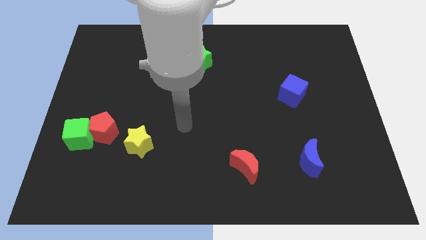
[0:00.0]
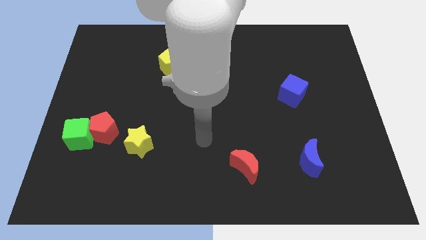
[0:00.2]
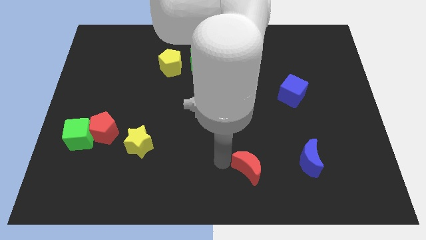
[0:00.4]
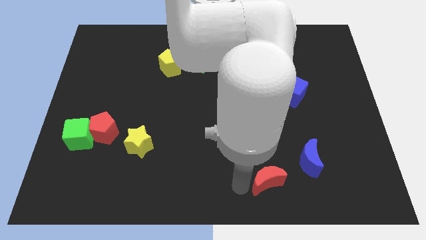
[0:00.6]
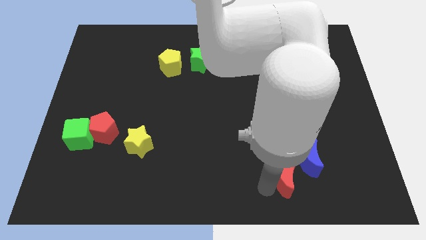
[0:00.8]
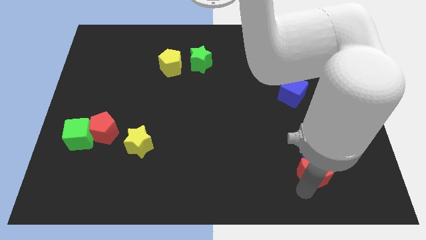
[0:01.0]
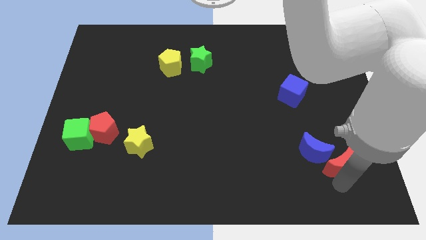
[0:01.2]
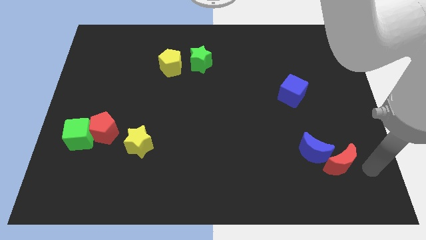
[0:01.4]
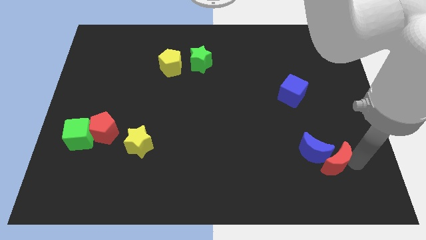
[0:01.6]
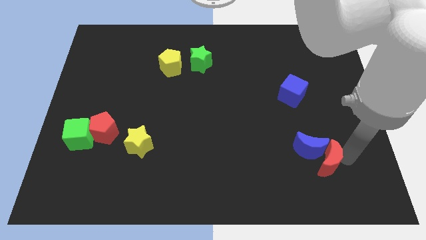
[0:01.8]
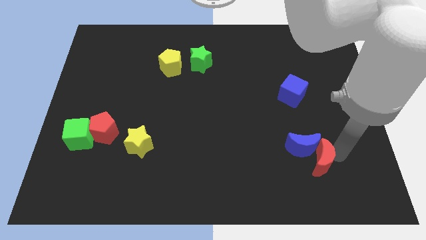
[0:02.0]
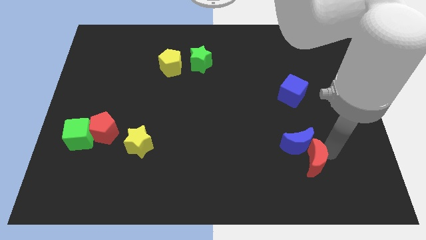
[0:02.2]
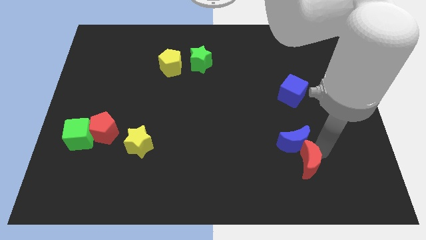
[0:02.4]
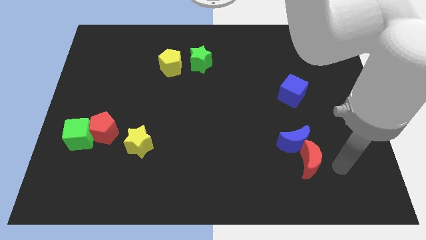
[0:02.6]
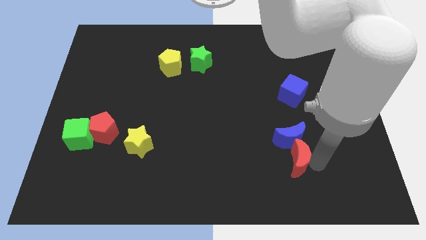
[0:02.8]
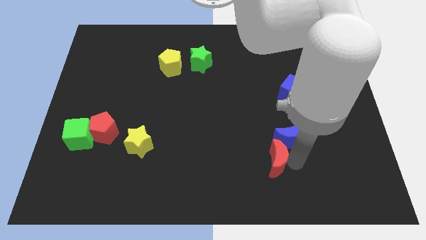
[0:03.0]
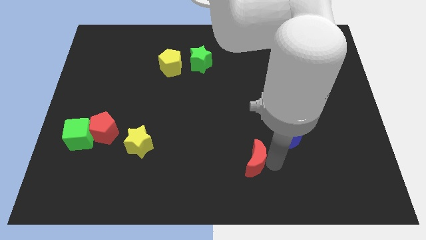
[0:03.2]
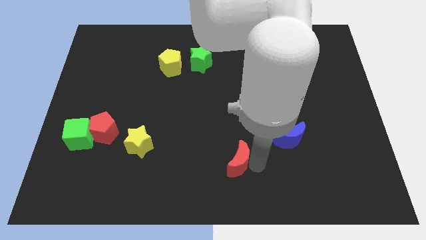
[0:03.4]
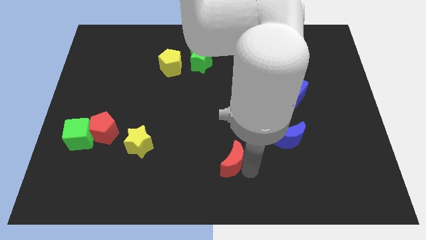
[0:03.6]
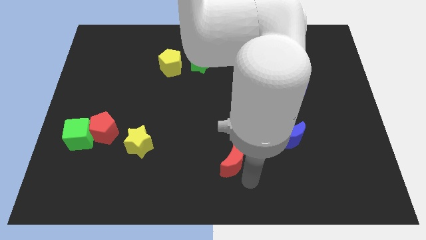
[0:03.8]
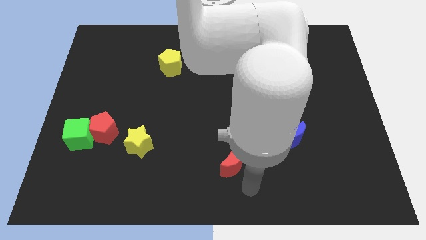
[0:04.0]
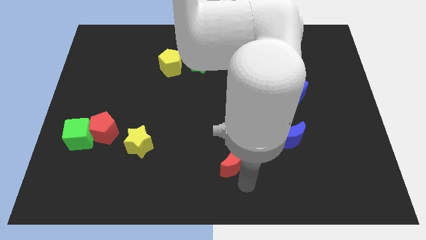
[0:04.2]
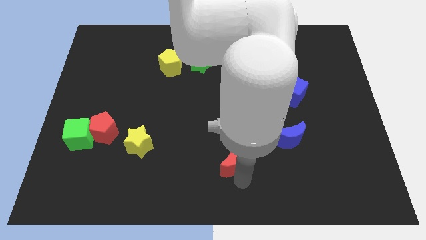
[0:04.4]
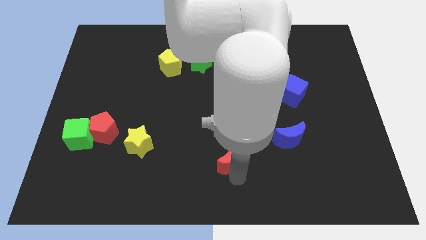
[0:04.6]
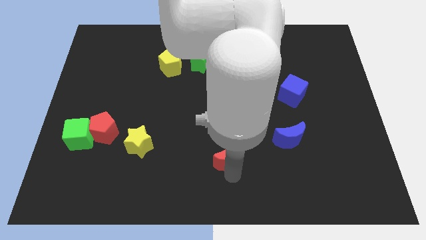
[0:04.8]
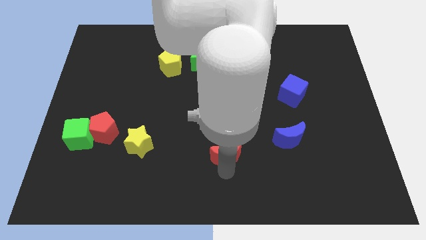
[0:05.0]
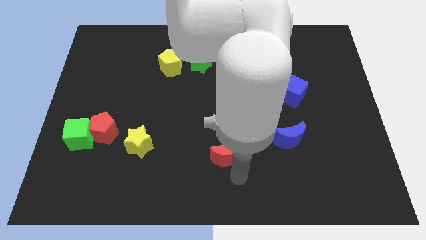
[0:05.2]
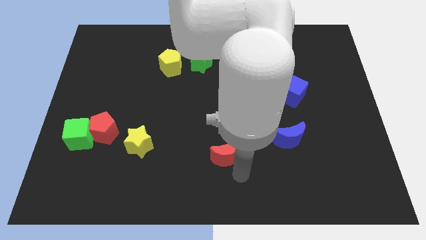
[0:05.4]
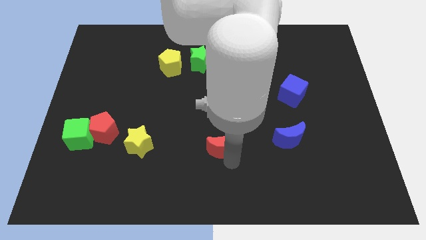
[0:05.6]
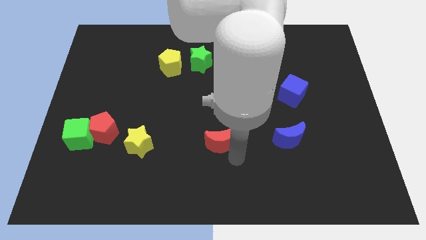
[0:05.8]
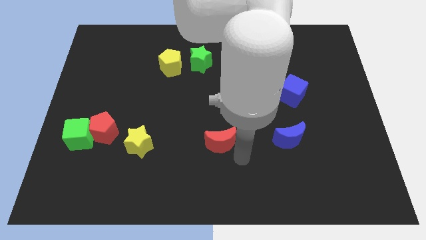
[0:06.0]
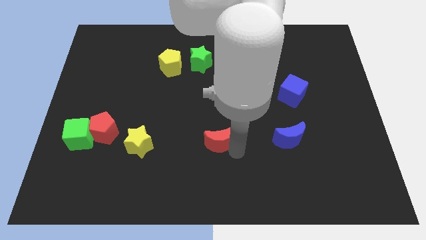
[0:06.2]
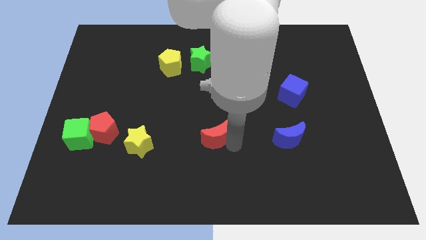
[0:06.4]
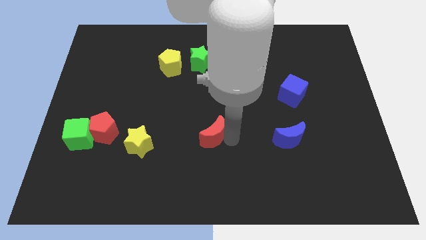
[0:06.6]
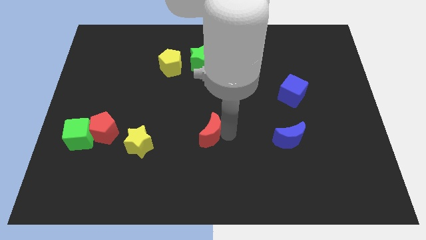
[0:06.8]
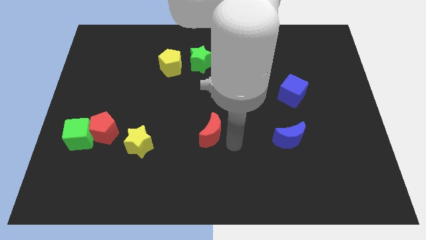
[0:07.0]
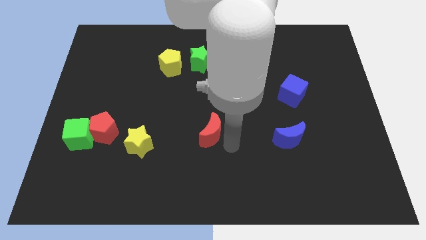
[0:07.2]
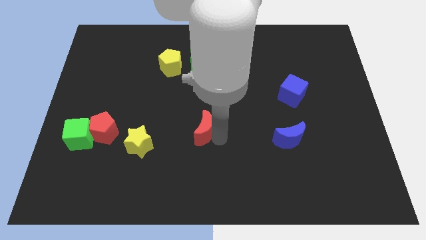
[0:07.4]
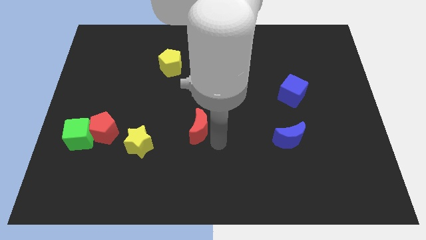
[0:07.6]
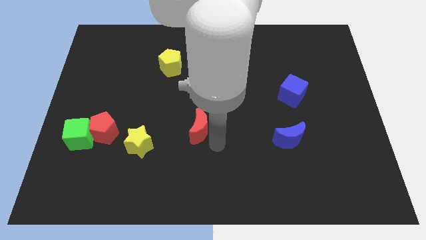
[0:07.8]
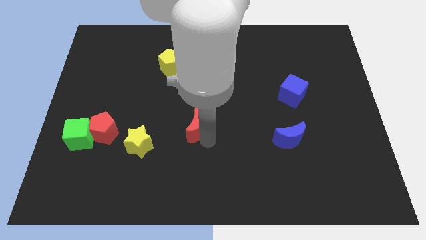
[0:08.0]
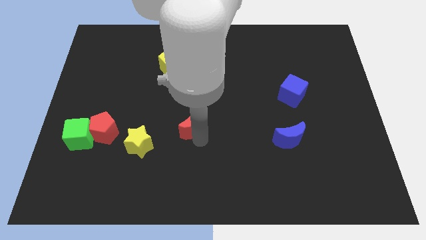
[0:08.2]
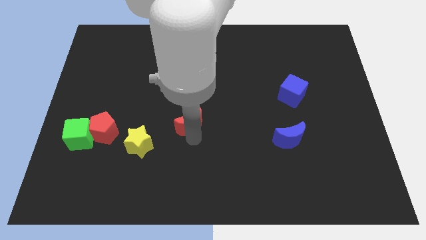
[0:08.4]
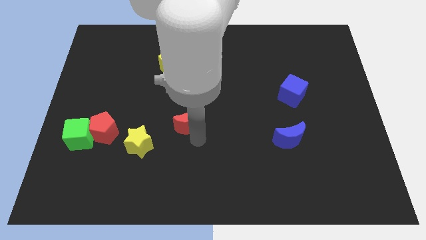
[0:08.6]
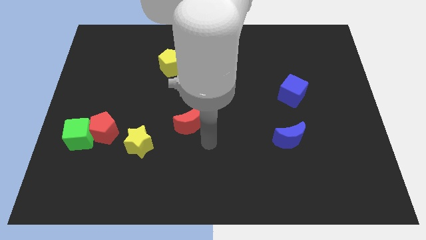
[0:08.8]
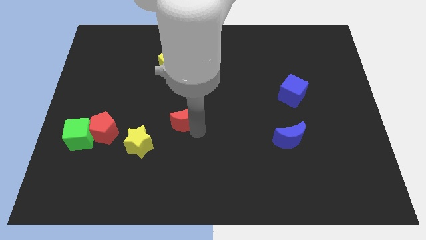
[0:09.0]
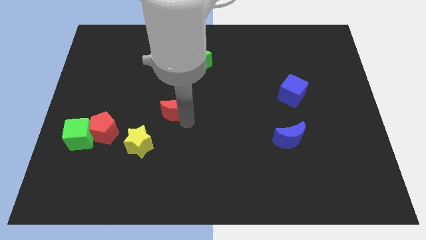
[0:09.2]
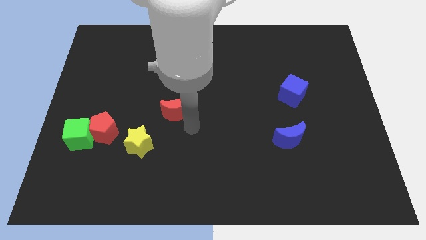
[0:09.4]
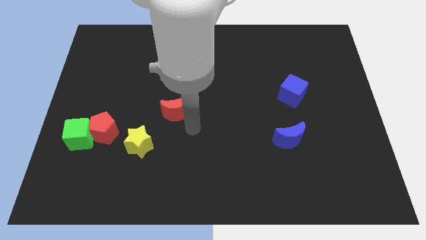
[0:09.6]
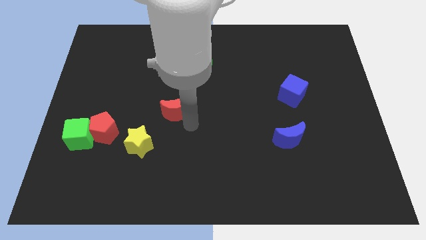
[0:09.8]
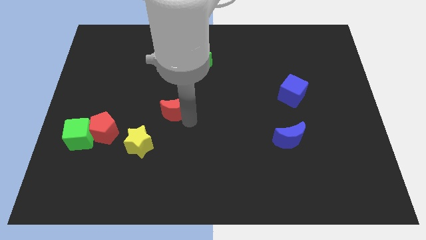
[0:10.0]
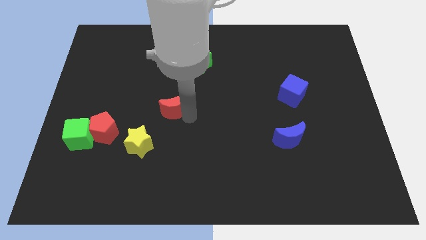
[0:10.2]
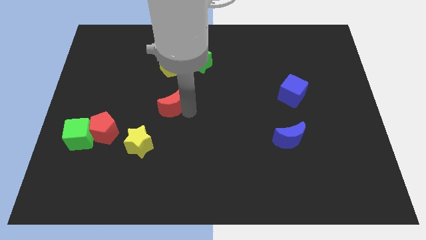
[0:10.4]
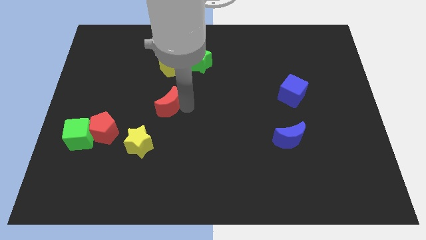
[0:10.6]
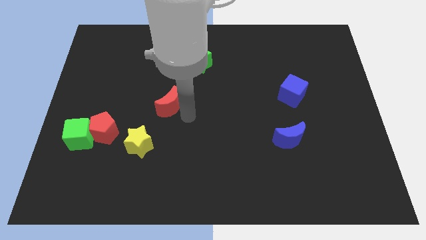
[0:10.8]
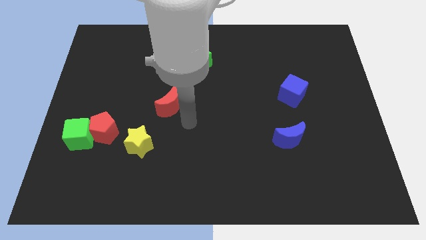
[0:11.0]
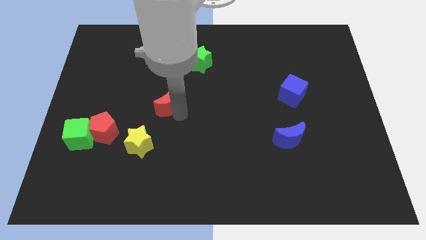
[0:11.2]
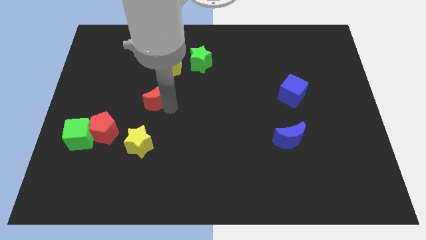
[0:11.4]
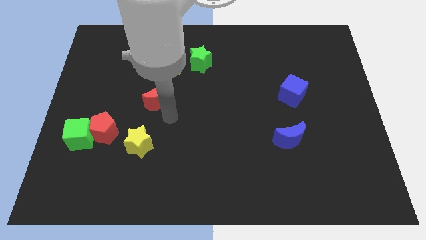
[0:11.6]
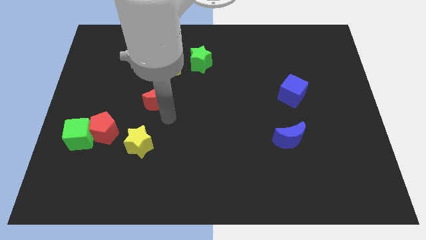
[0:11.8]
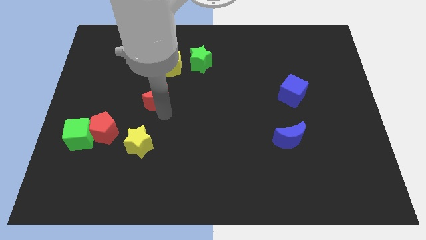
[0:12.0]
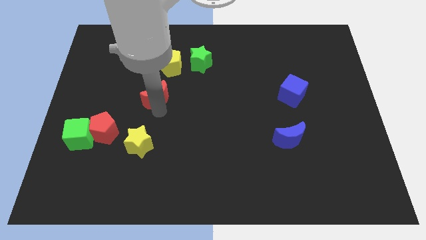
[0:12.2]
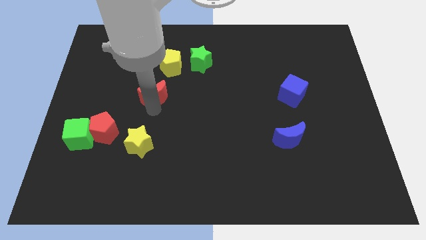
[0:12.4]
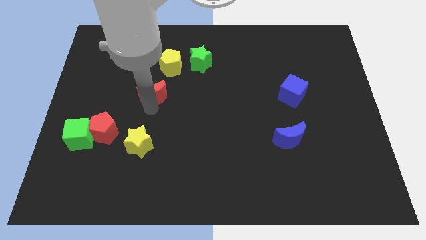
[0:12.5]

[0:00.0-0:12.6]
put the red moon to the bottom left of the yellow pentagon
